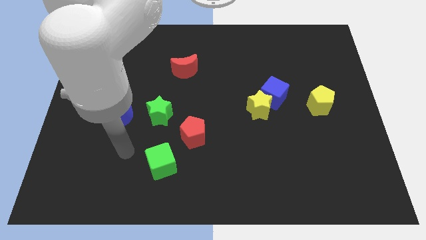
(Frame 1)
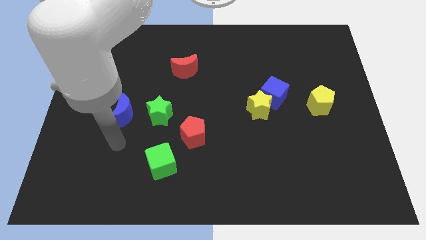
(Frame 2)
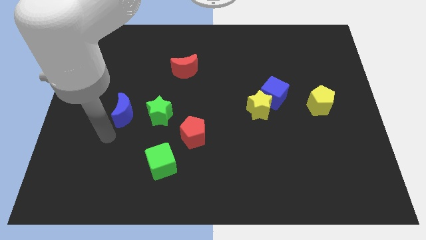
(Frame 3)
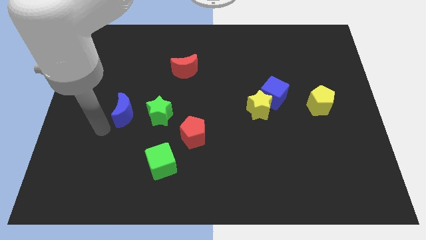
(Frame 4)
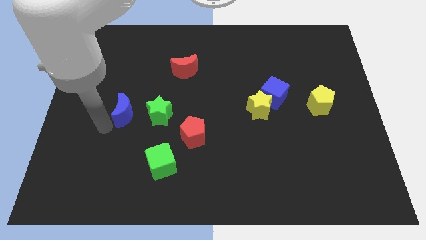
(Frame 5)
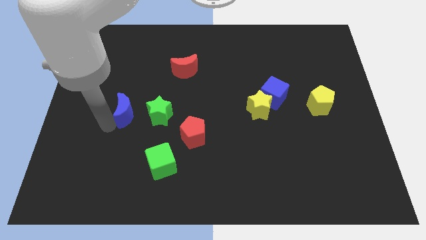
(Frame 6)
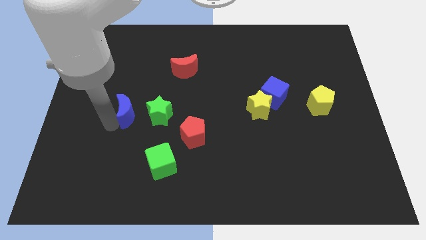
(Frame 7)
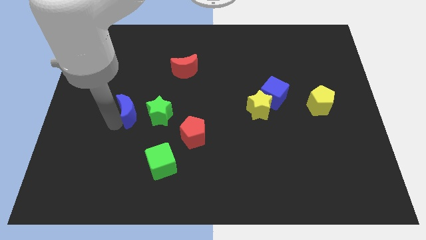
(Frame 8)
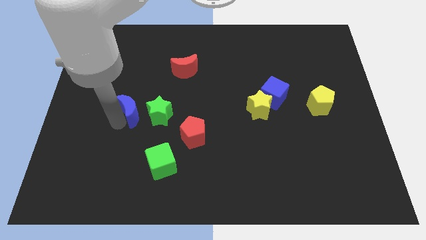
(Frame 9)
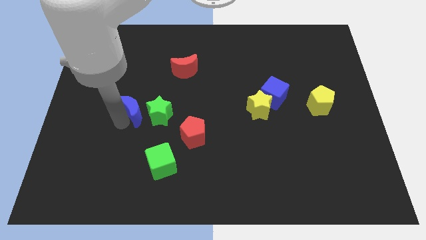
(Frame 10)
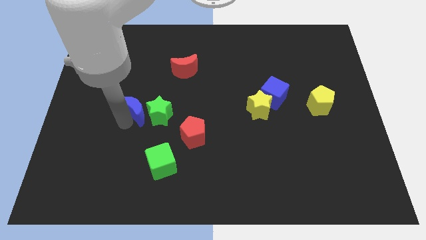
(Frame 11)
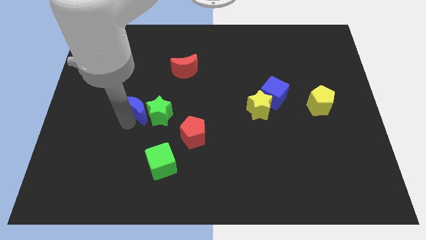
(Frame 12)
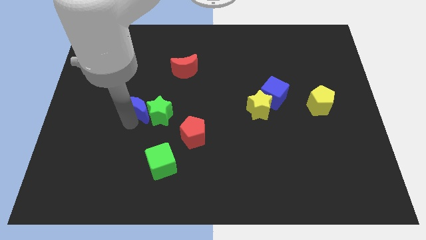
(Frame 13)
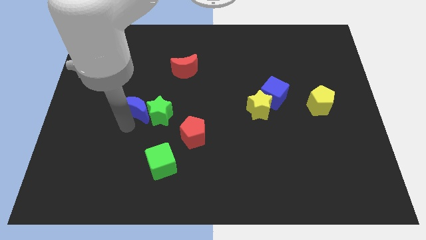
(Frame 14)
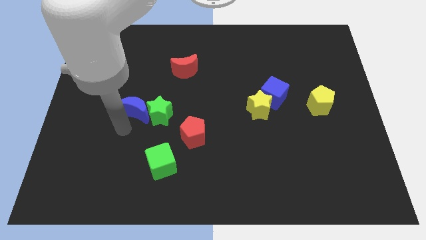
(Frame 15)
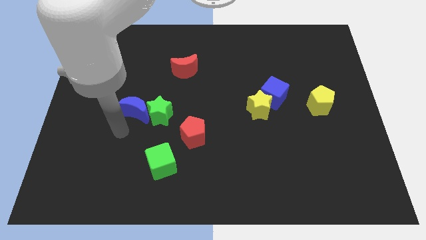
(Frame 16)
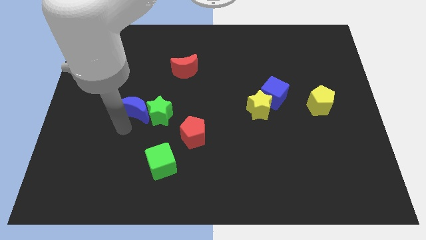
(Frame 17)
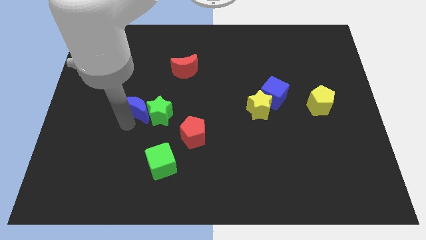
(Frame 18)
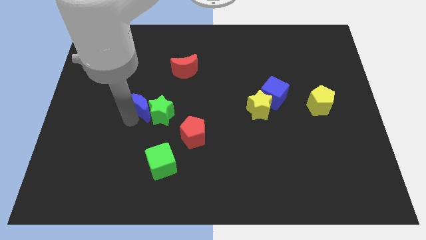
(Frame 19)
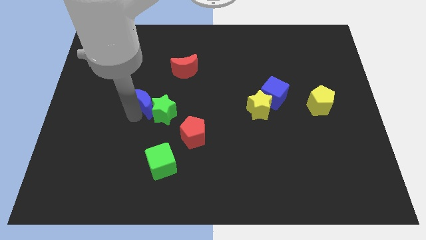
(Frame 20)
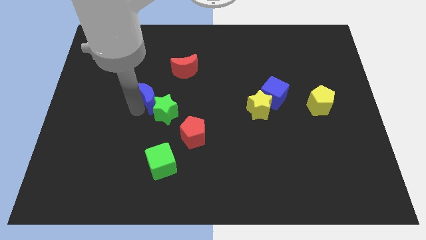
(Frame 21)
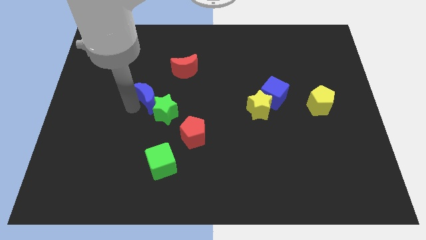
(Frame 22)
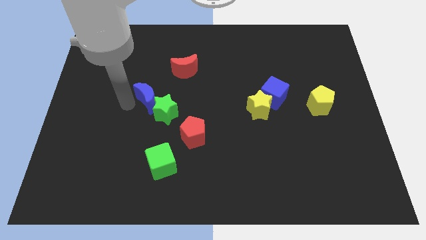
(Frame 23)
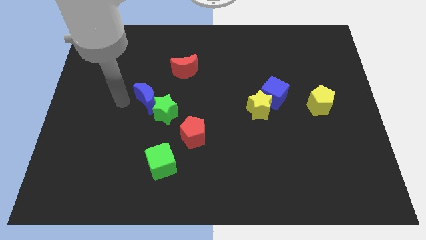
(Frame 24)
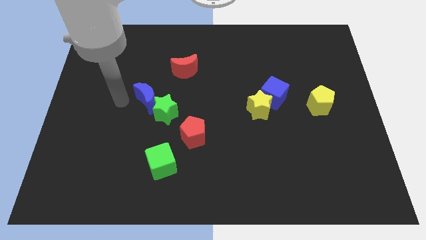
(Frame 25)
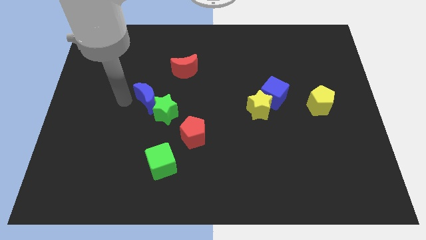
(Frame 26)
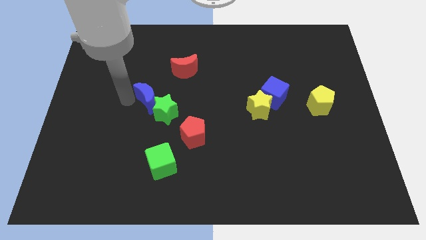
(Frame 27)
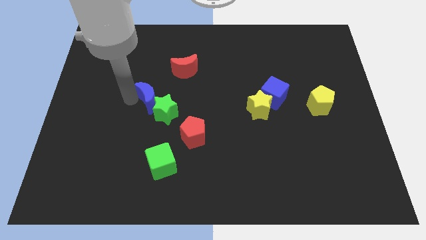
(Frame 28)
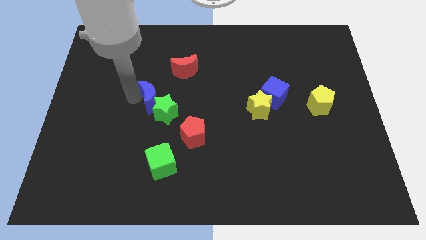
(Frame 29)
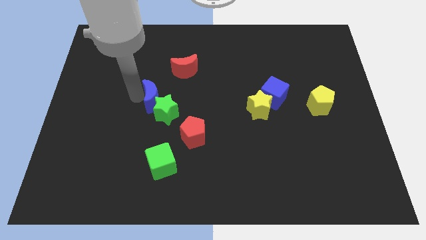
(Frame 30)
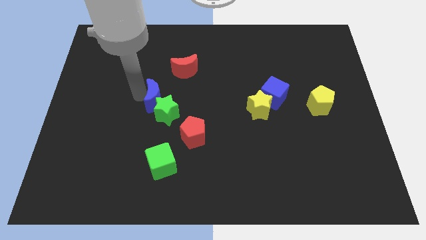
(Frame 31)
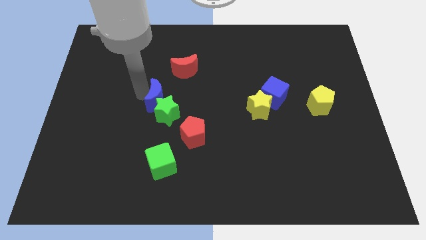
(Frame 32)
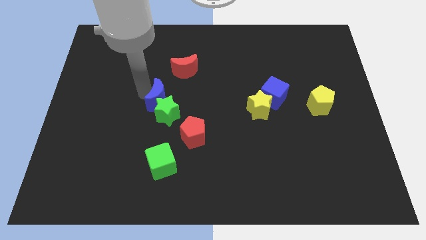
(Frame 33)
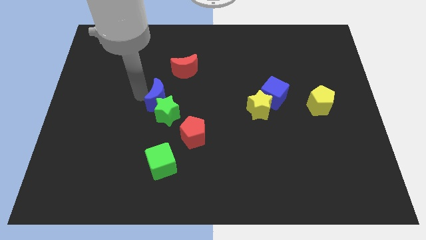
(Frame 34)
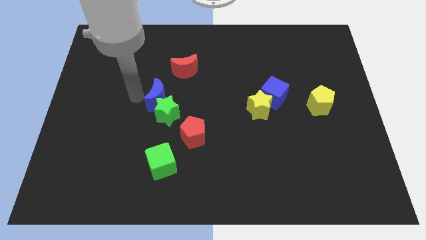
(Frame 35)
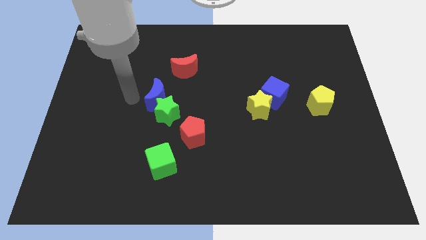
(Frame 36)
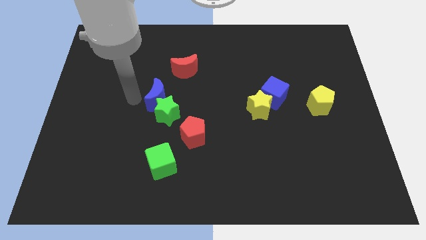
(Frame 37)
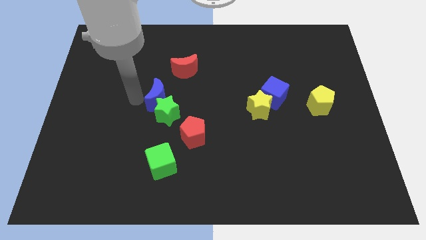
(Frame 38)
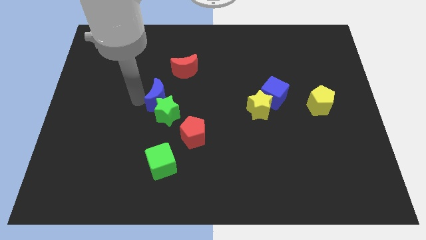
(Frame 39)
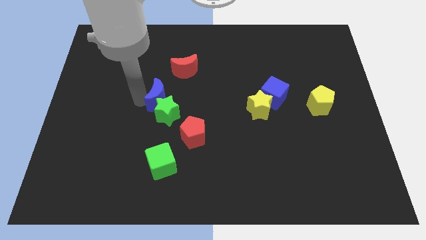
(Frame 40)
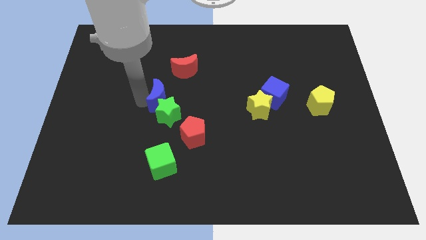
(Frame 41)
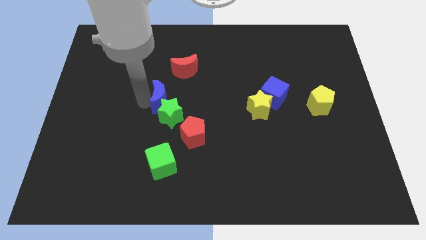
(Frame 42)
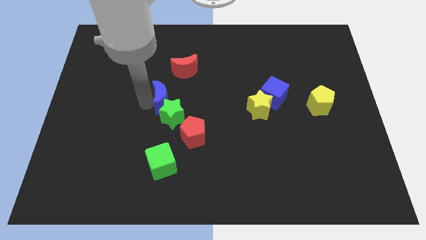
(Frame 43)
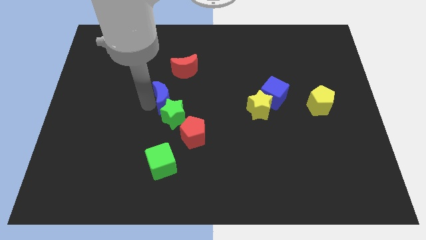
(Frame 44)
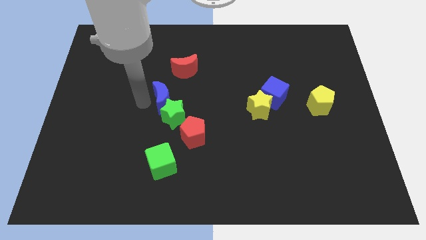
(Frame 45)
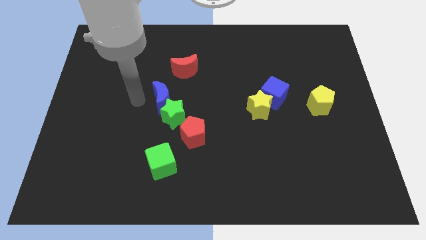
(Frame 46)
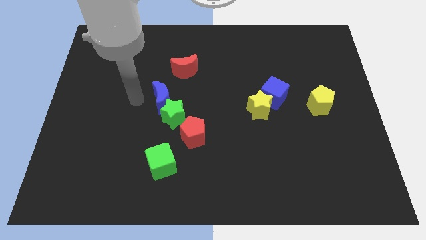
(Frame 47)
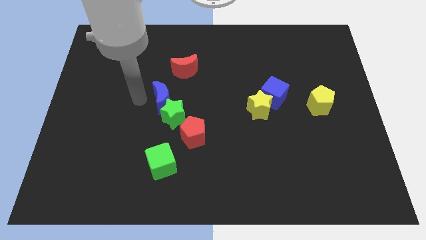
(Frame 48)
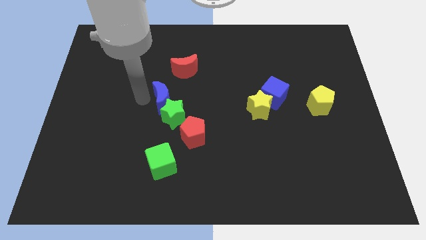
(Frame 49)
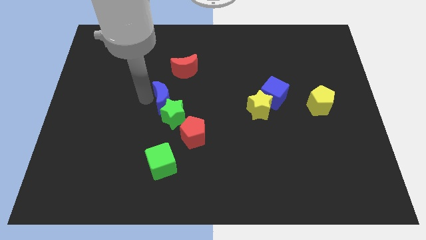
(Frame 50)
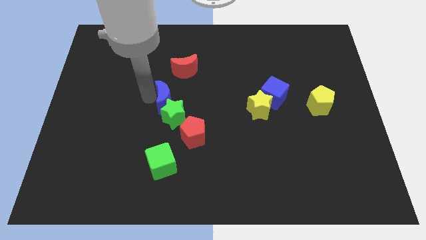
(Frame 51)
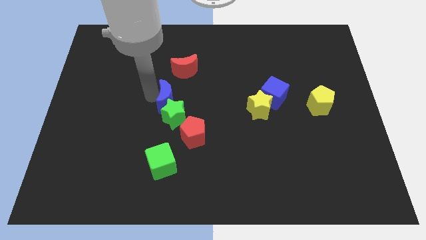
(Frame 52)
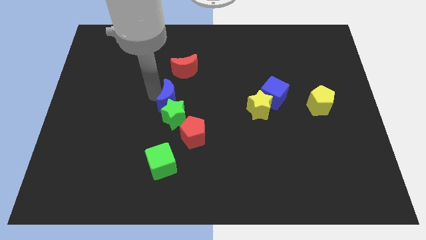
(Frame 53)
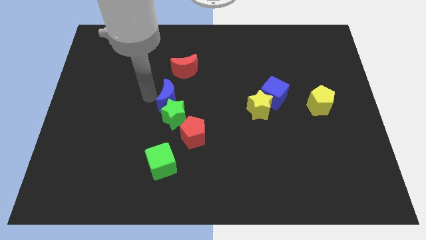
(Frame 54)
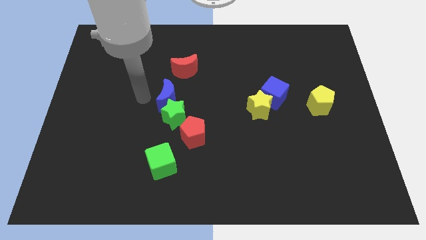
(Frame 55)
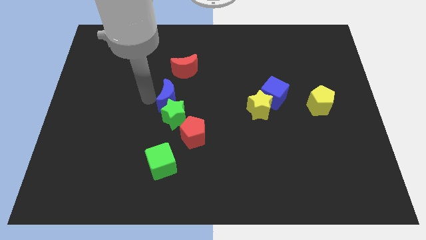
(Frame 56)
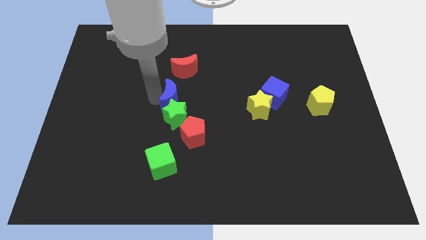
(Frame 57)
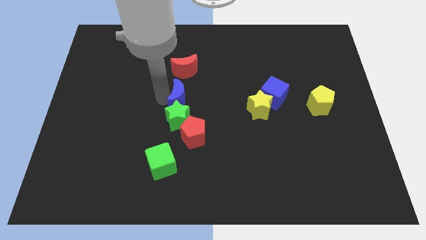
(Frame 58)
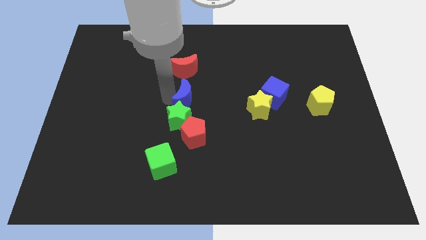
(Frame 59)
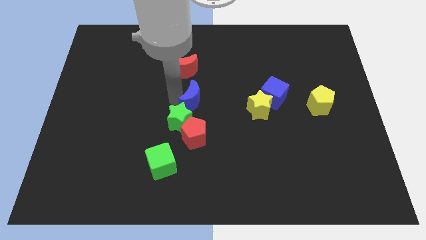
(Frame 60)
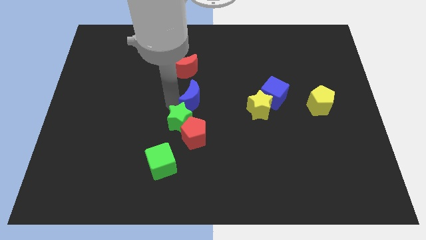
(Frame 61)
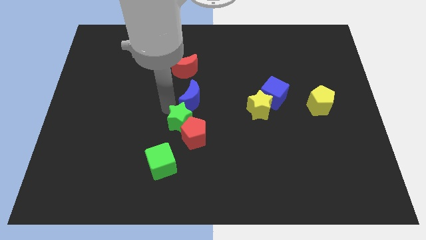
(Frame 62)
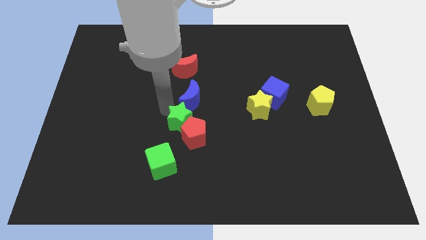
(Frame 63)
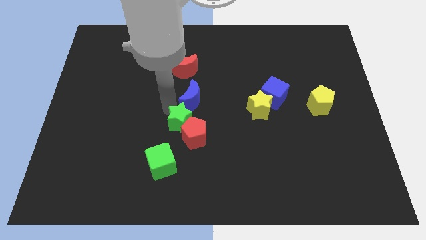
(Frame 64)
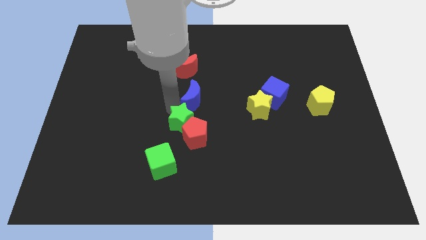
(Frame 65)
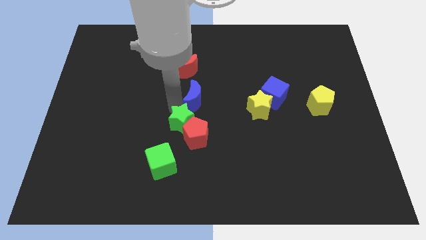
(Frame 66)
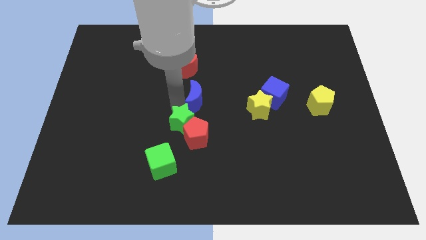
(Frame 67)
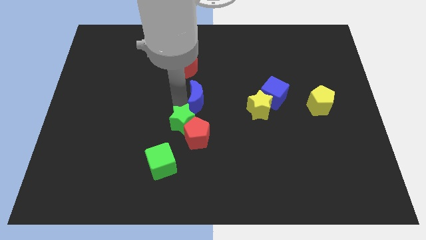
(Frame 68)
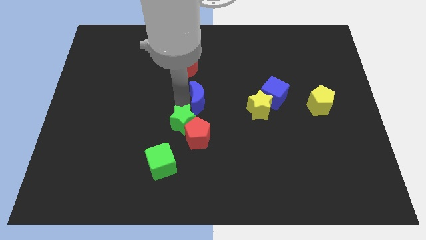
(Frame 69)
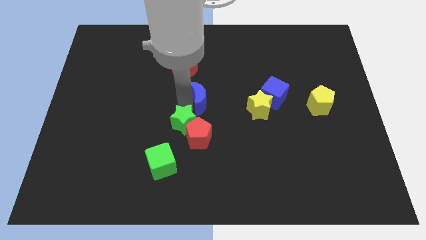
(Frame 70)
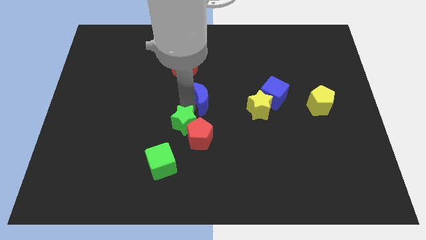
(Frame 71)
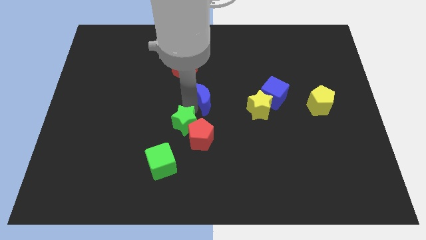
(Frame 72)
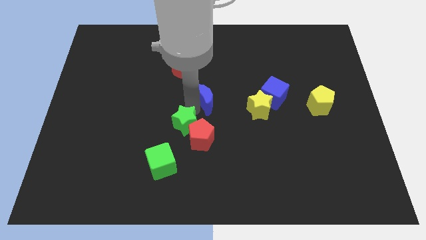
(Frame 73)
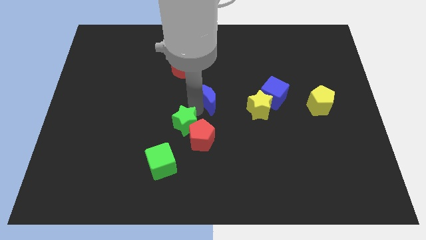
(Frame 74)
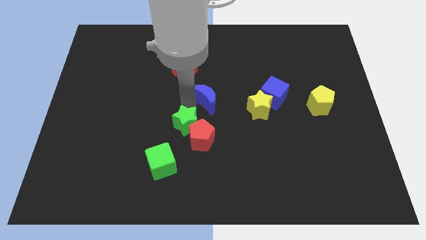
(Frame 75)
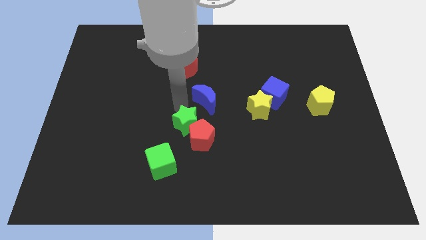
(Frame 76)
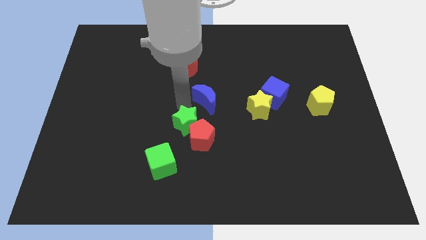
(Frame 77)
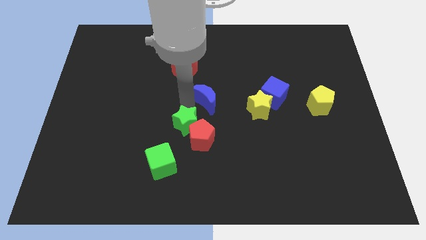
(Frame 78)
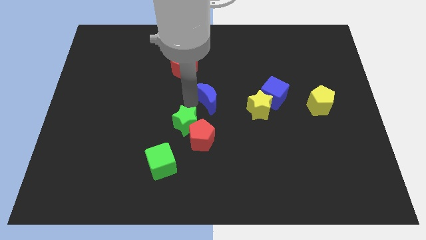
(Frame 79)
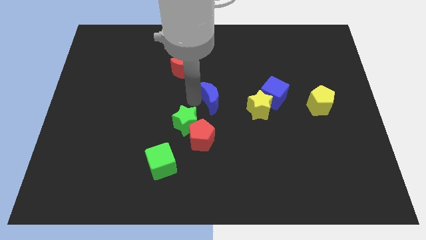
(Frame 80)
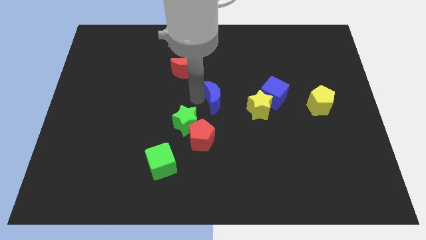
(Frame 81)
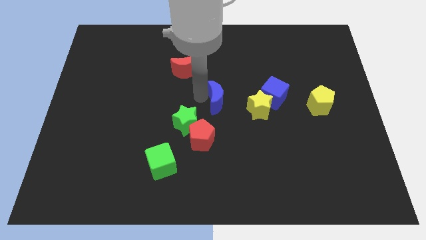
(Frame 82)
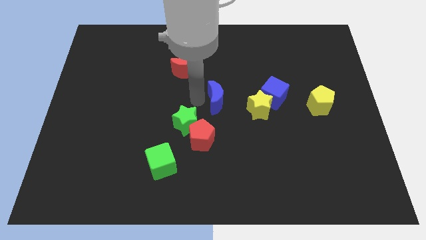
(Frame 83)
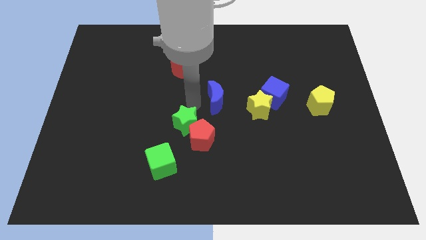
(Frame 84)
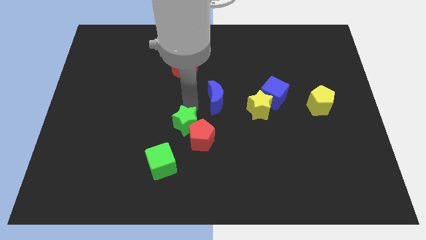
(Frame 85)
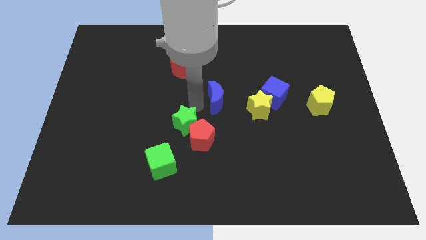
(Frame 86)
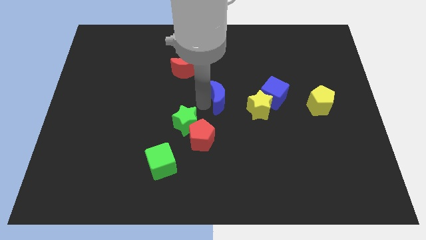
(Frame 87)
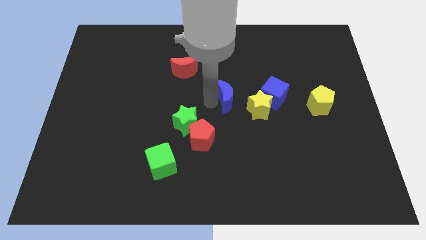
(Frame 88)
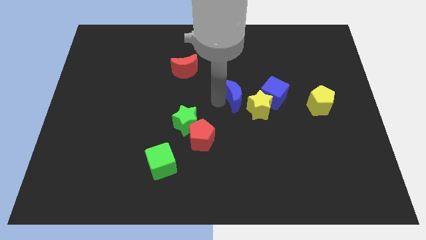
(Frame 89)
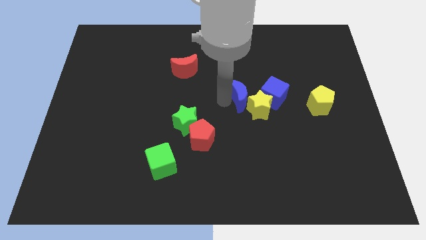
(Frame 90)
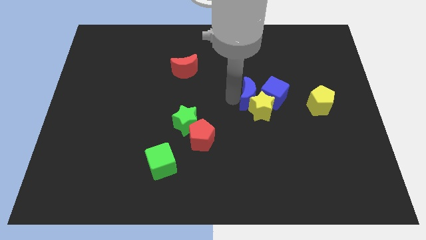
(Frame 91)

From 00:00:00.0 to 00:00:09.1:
slide the blue moon to the blue cube
